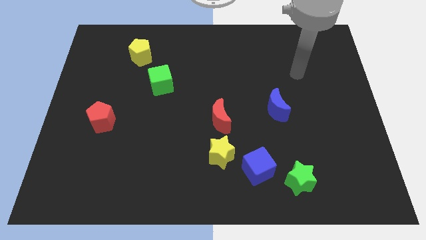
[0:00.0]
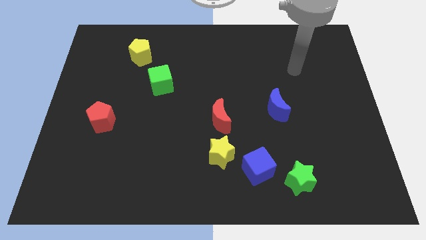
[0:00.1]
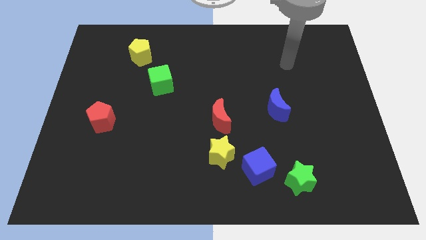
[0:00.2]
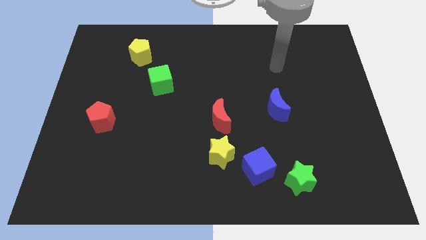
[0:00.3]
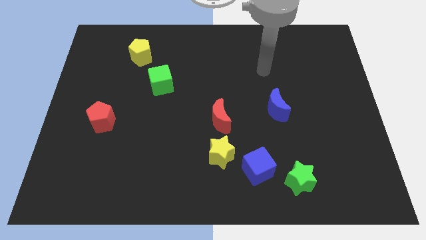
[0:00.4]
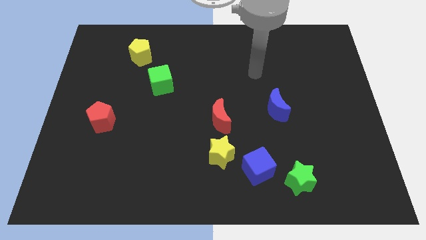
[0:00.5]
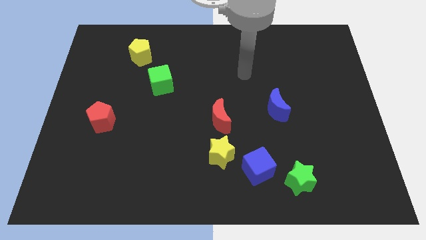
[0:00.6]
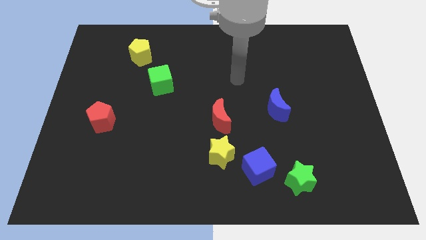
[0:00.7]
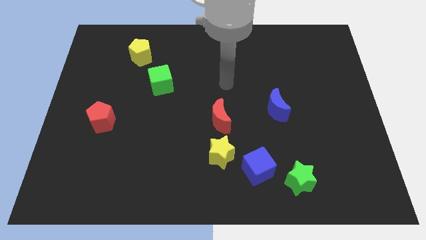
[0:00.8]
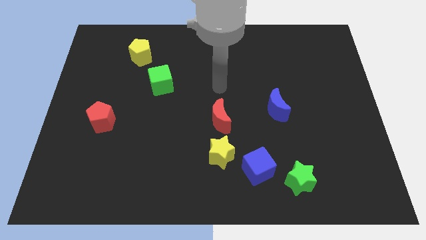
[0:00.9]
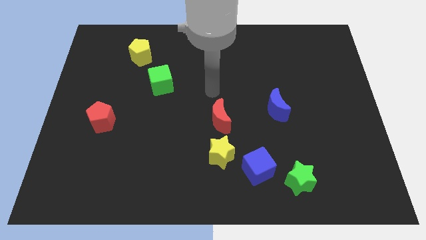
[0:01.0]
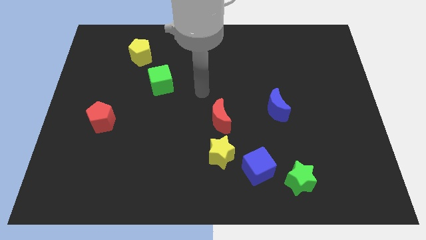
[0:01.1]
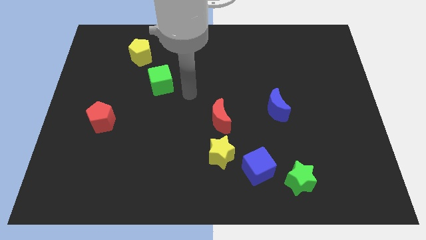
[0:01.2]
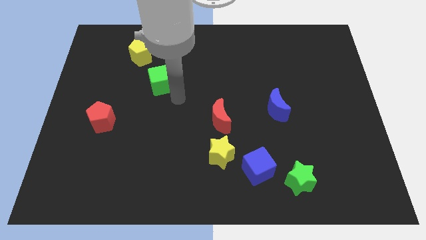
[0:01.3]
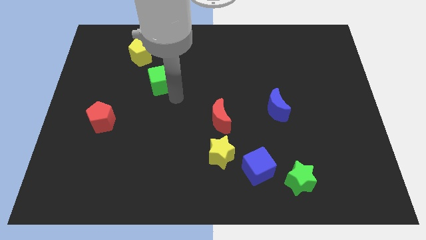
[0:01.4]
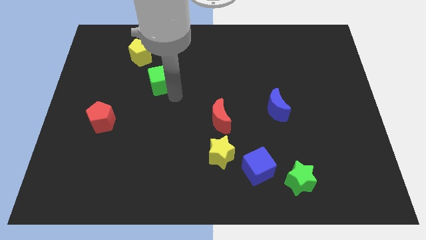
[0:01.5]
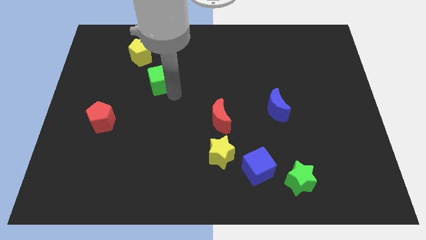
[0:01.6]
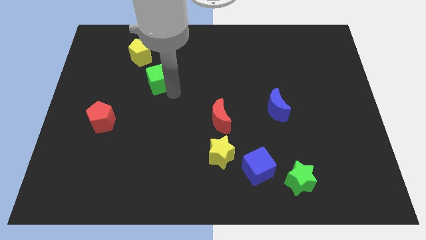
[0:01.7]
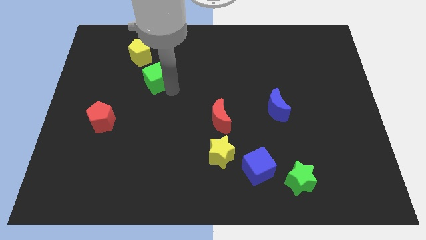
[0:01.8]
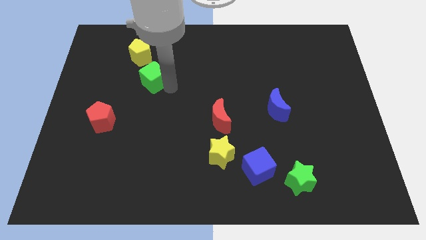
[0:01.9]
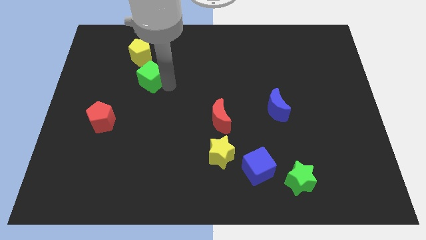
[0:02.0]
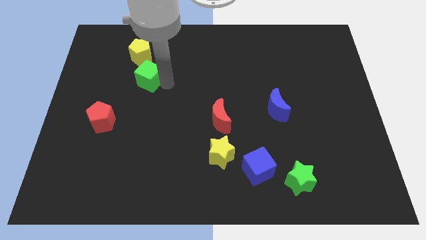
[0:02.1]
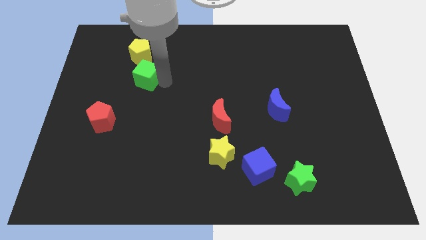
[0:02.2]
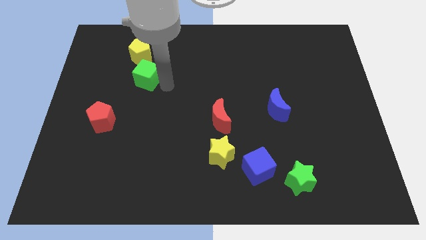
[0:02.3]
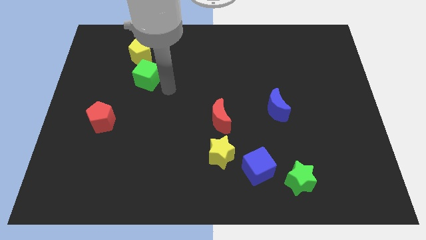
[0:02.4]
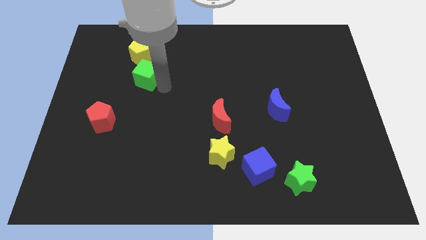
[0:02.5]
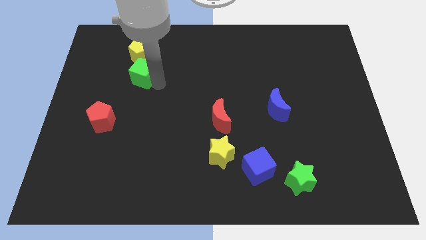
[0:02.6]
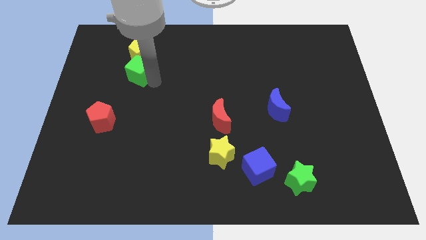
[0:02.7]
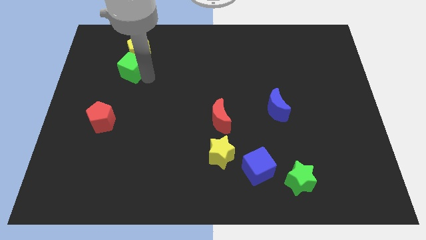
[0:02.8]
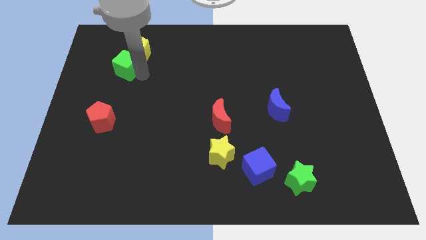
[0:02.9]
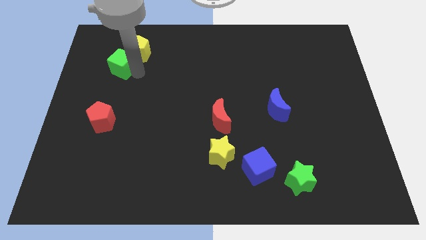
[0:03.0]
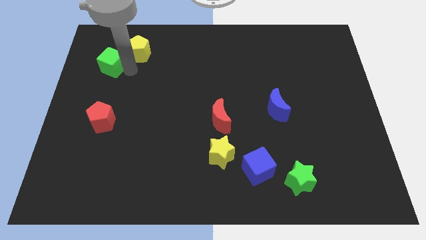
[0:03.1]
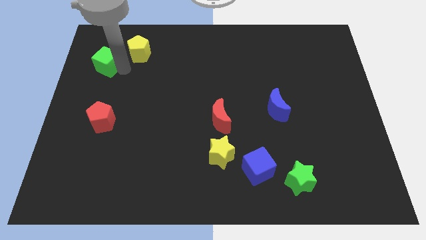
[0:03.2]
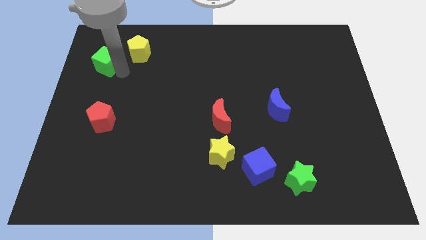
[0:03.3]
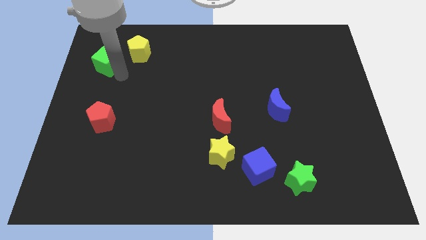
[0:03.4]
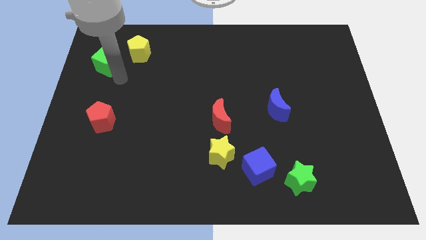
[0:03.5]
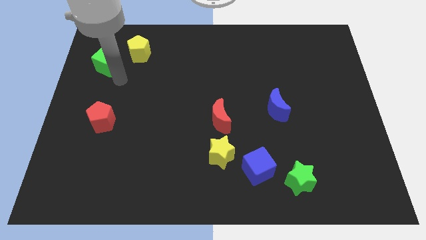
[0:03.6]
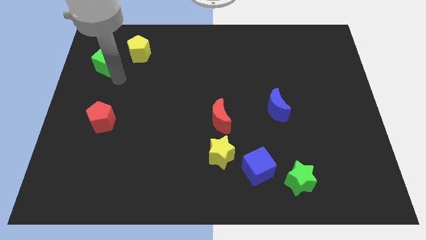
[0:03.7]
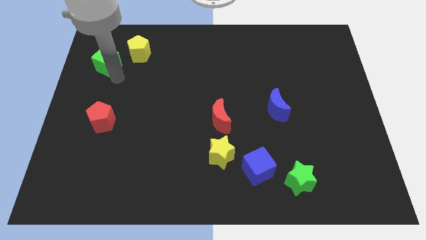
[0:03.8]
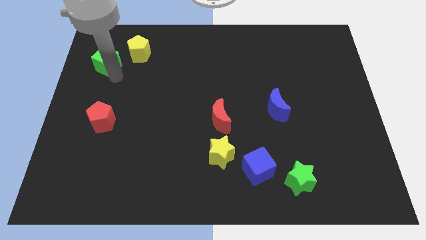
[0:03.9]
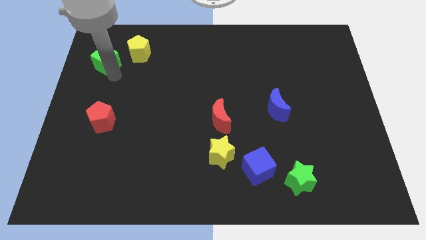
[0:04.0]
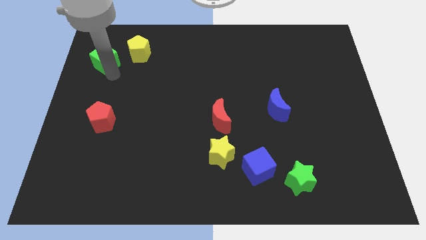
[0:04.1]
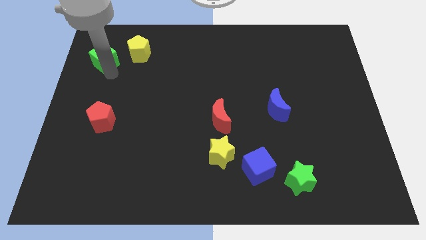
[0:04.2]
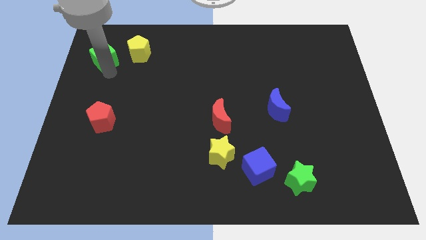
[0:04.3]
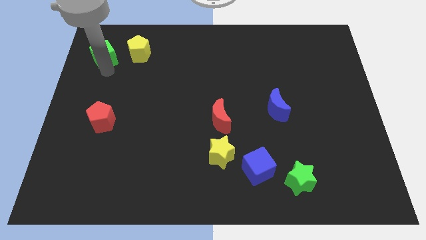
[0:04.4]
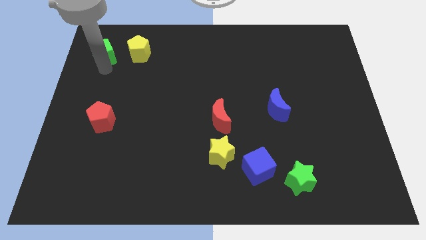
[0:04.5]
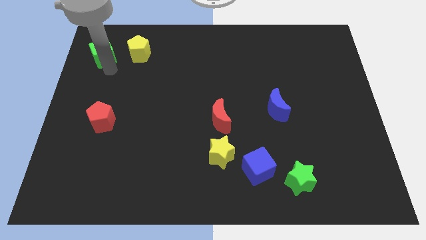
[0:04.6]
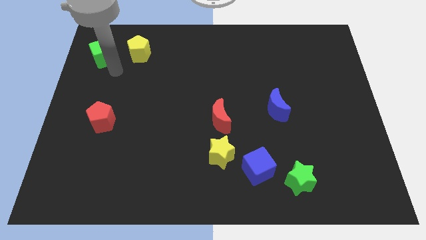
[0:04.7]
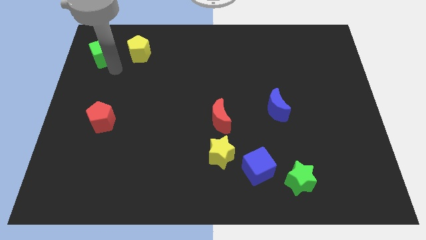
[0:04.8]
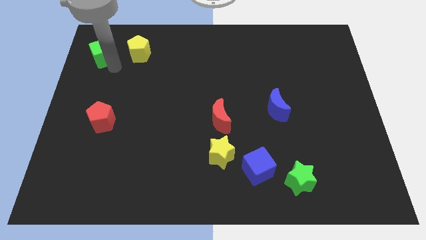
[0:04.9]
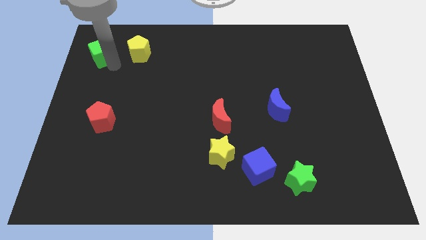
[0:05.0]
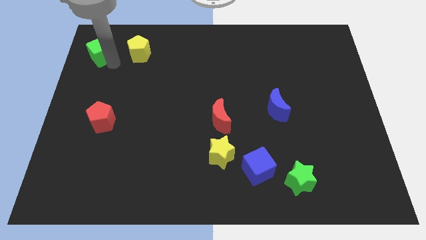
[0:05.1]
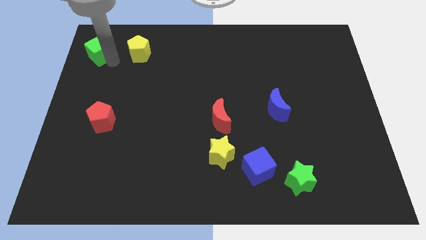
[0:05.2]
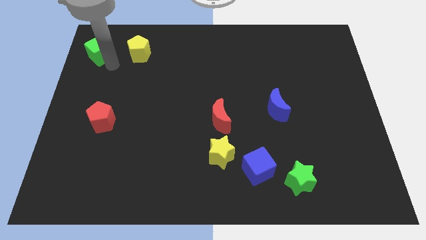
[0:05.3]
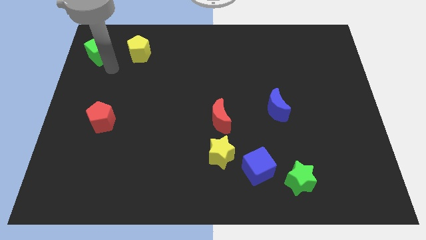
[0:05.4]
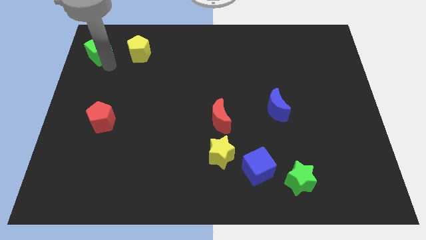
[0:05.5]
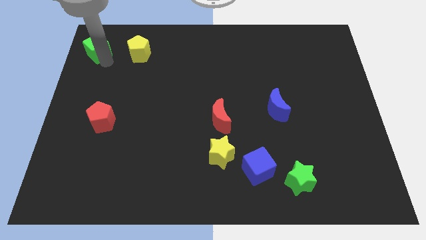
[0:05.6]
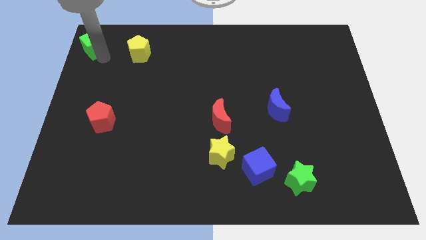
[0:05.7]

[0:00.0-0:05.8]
put the green cube to the upper left corner

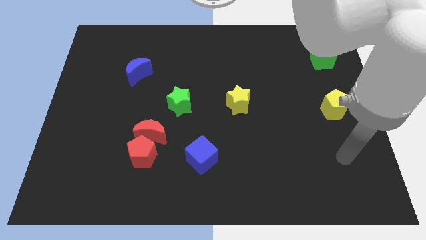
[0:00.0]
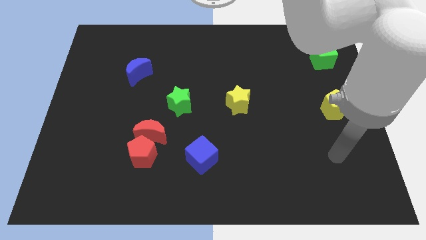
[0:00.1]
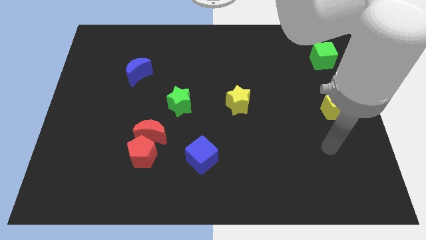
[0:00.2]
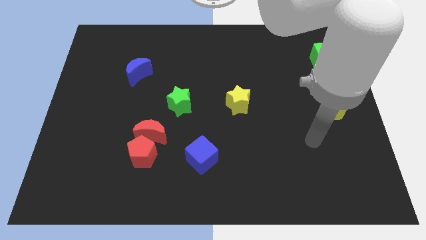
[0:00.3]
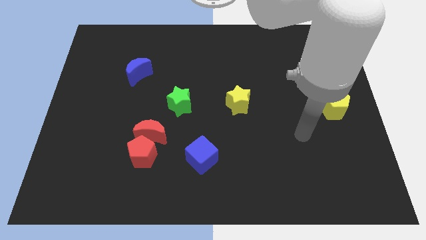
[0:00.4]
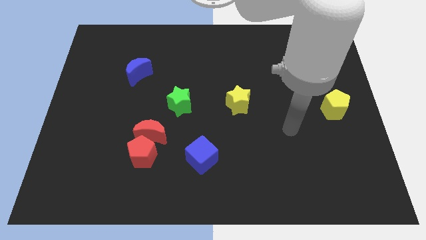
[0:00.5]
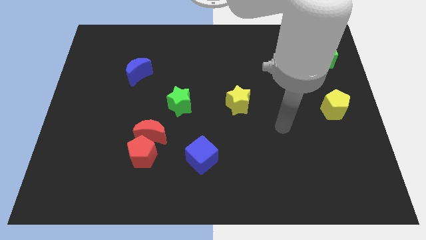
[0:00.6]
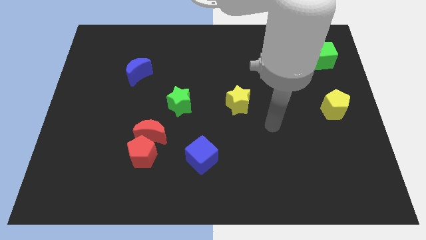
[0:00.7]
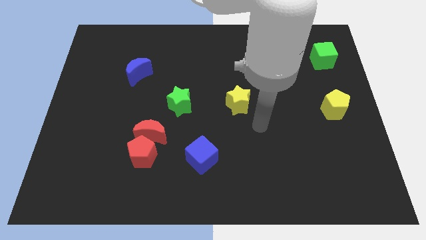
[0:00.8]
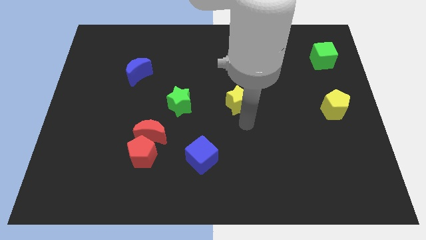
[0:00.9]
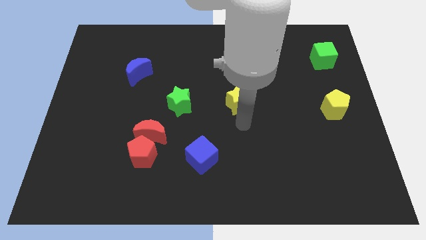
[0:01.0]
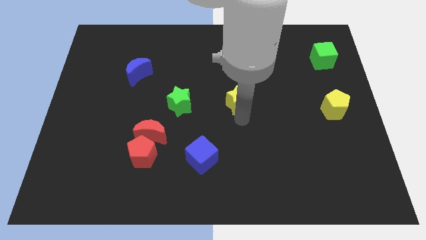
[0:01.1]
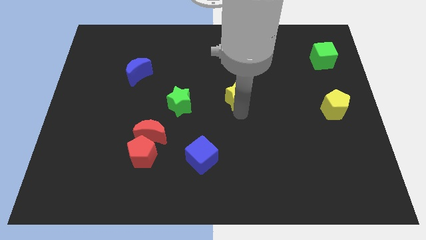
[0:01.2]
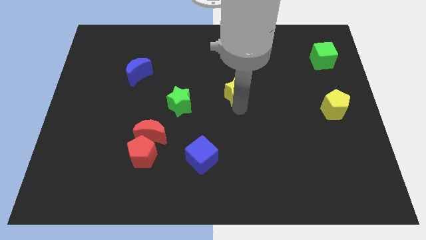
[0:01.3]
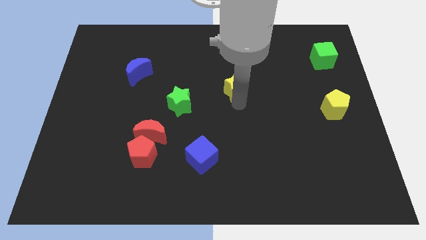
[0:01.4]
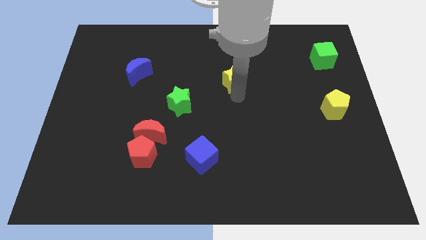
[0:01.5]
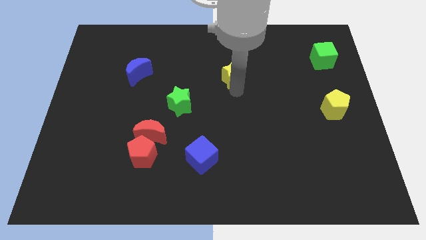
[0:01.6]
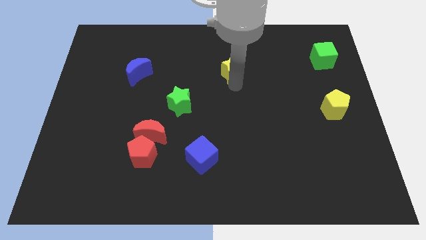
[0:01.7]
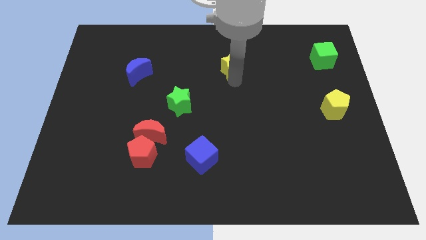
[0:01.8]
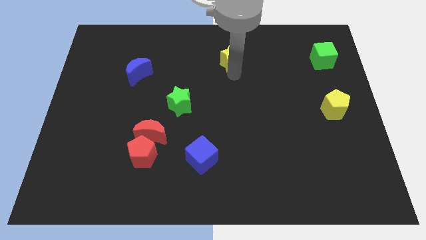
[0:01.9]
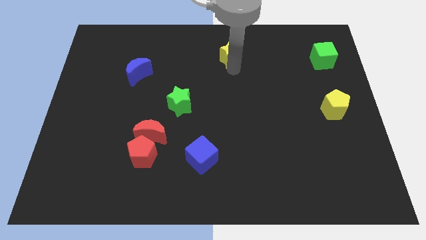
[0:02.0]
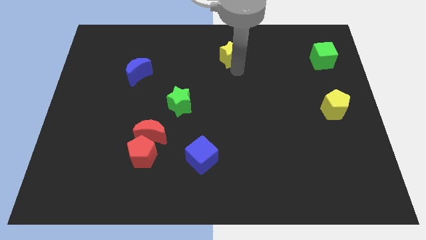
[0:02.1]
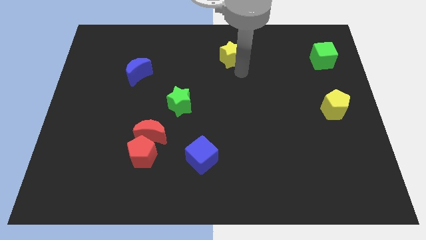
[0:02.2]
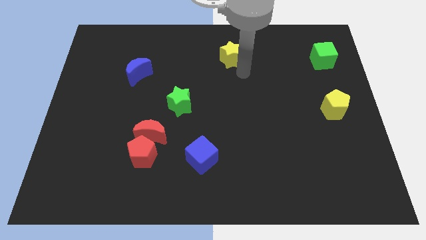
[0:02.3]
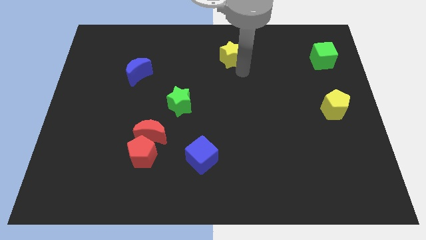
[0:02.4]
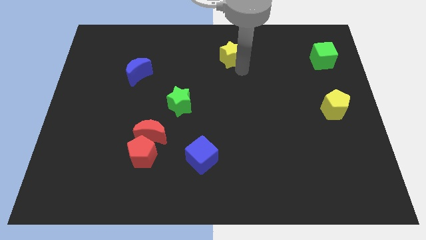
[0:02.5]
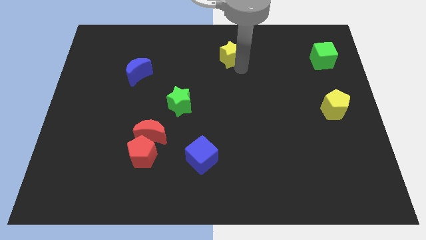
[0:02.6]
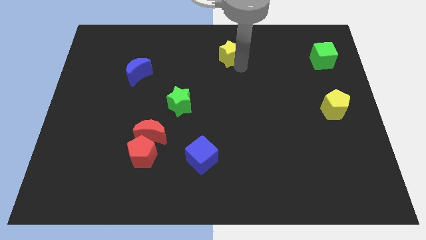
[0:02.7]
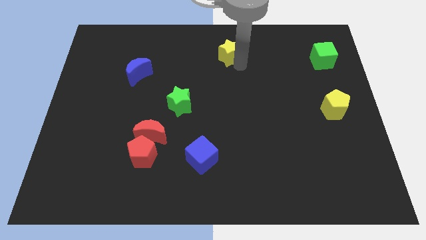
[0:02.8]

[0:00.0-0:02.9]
move the yellow star to the top
